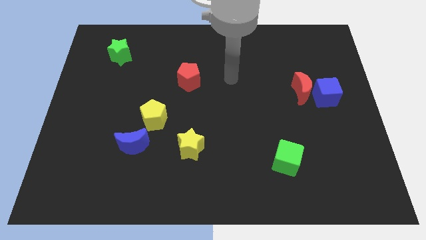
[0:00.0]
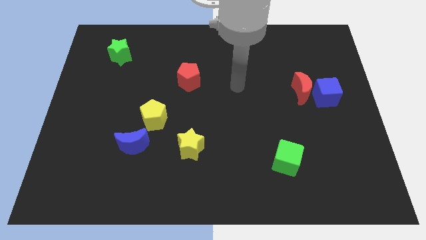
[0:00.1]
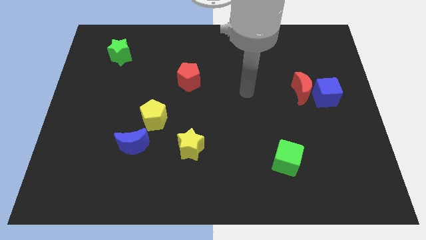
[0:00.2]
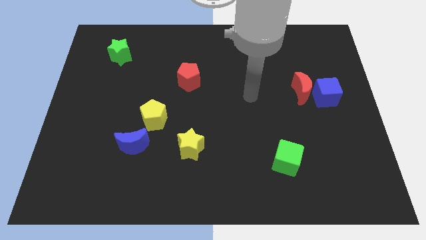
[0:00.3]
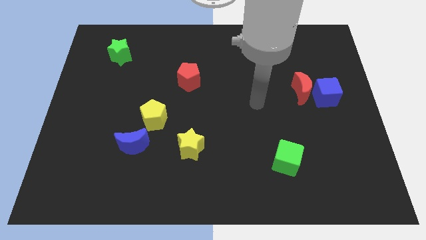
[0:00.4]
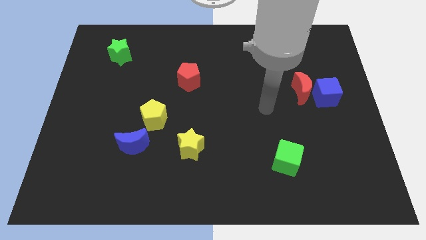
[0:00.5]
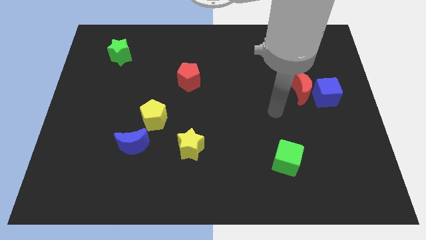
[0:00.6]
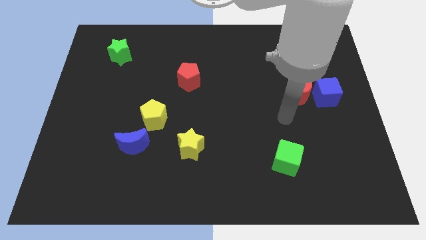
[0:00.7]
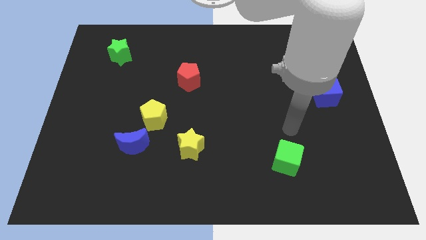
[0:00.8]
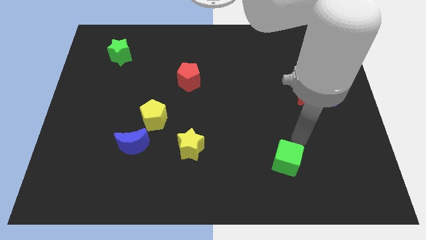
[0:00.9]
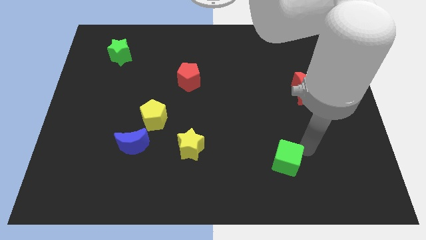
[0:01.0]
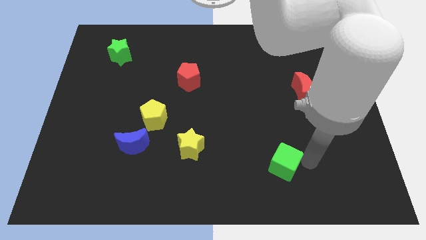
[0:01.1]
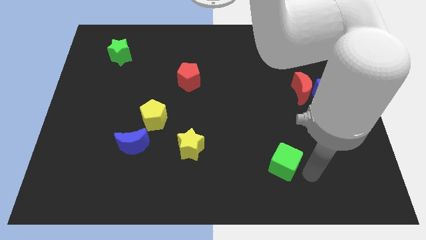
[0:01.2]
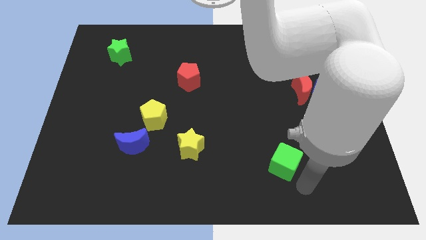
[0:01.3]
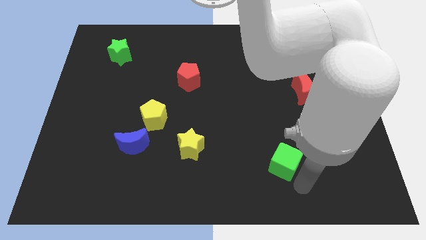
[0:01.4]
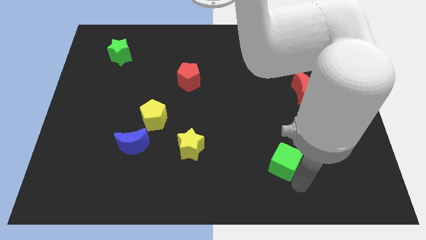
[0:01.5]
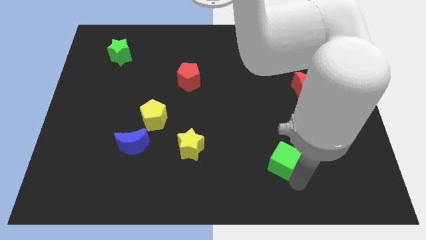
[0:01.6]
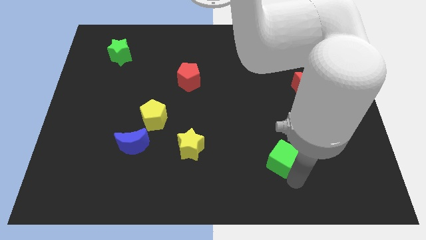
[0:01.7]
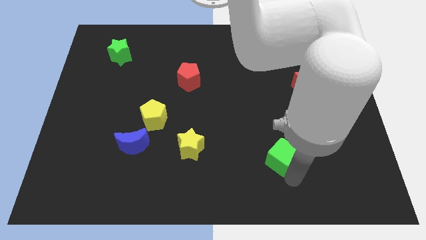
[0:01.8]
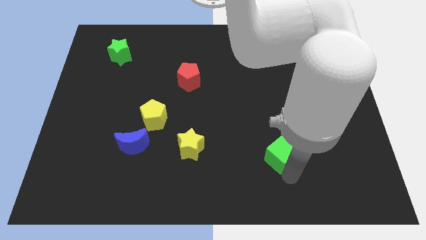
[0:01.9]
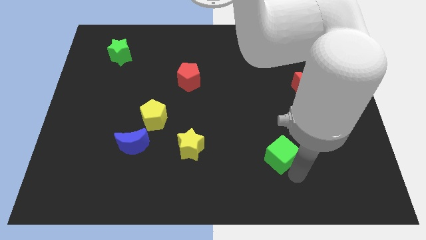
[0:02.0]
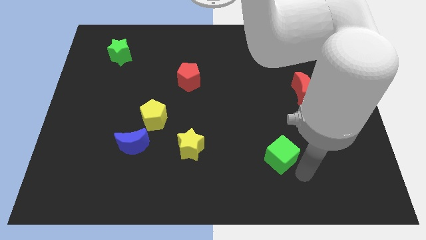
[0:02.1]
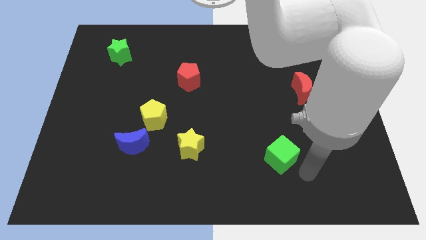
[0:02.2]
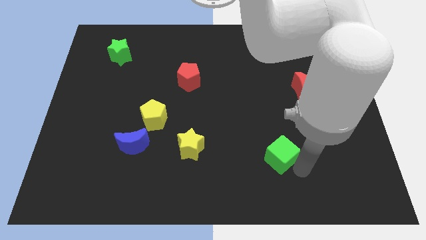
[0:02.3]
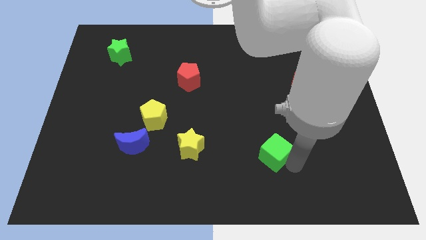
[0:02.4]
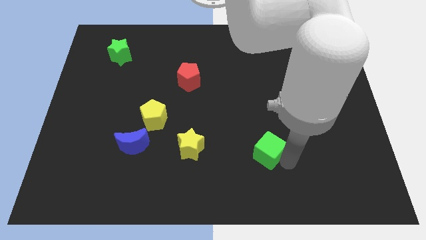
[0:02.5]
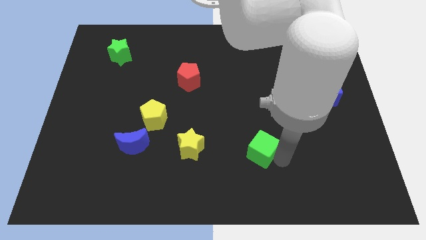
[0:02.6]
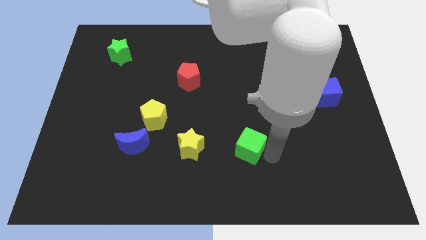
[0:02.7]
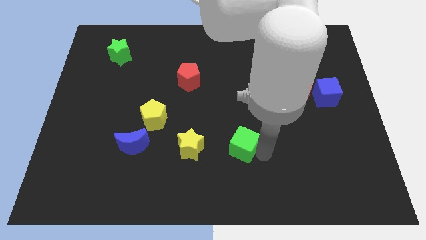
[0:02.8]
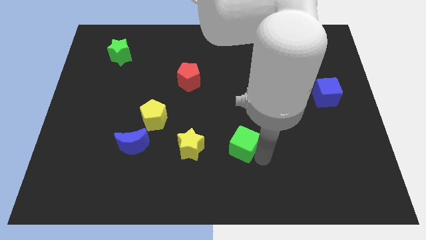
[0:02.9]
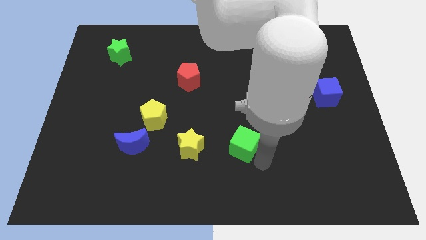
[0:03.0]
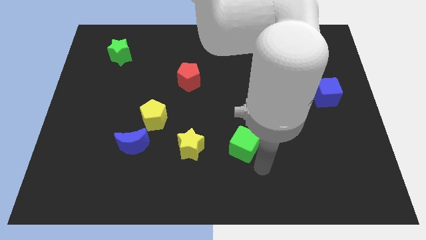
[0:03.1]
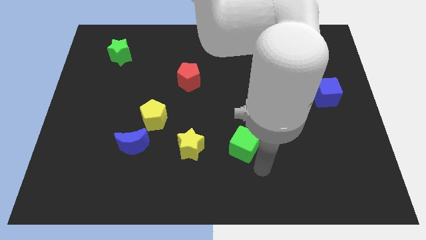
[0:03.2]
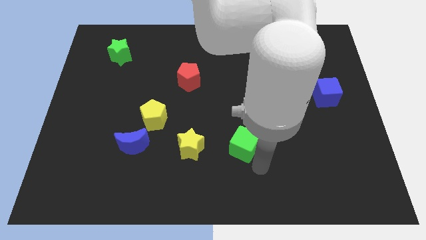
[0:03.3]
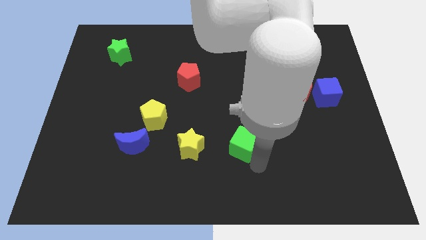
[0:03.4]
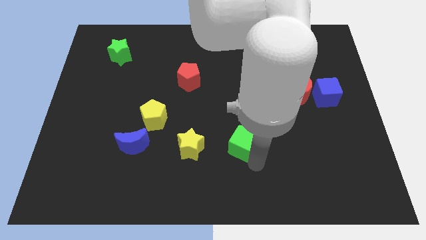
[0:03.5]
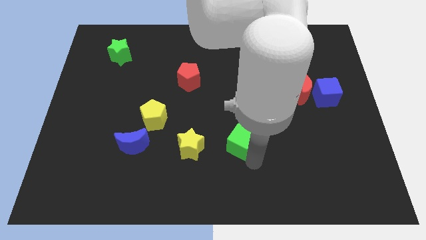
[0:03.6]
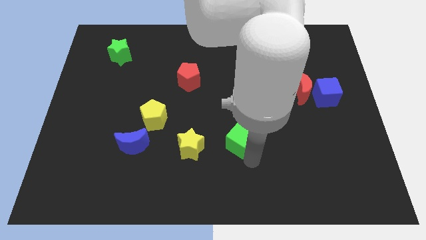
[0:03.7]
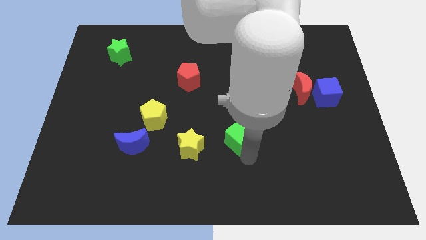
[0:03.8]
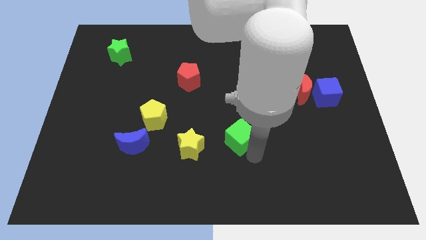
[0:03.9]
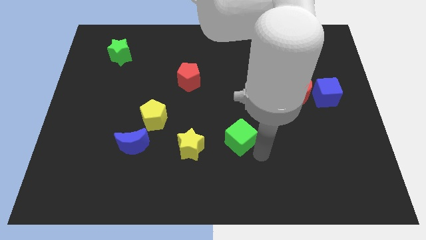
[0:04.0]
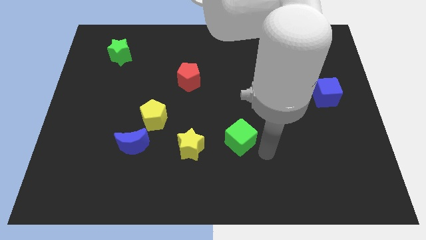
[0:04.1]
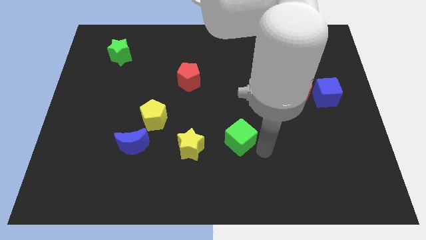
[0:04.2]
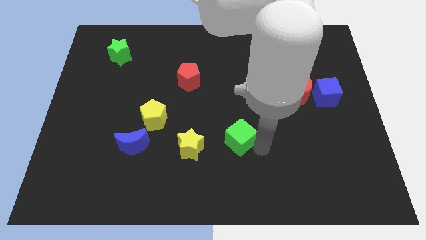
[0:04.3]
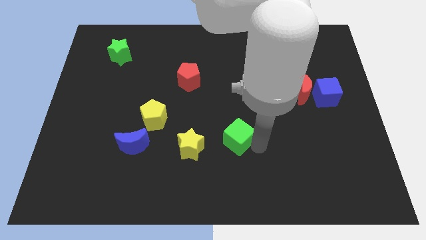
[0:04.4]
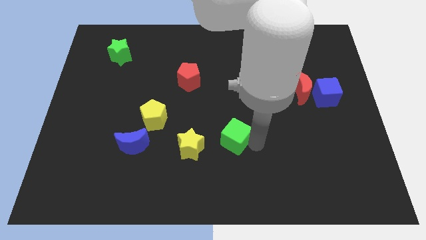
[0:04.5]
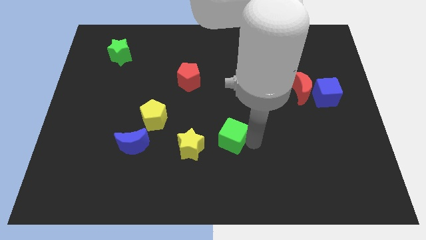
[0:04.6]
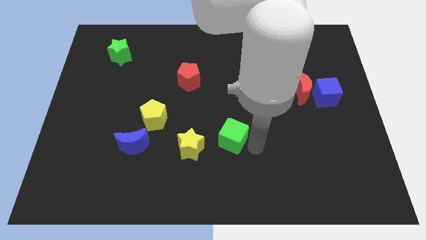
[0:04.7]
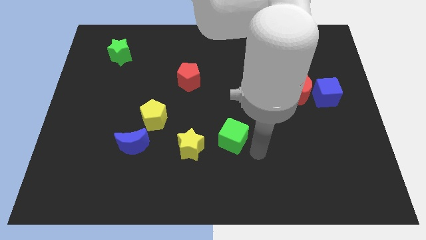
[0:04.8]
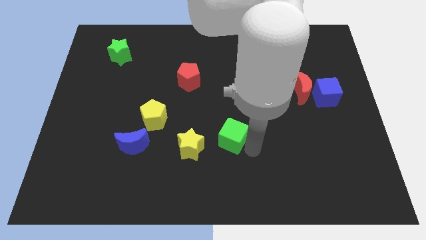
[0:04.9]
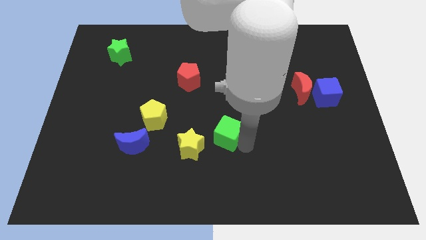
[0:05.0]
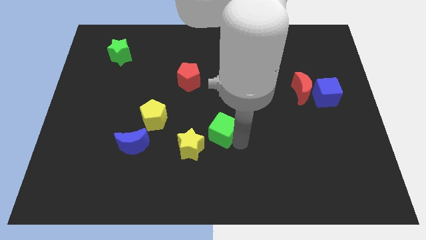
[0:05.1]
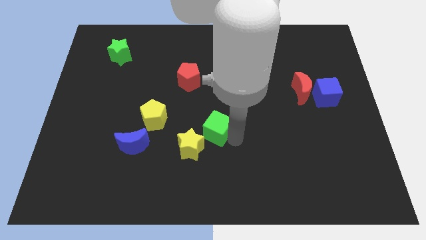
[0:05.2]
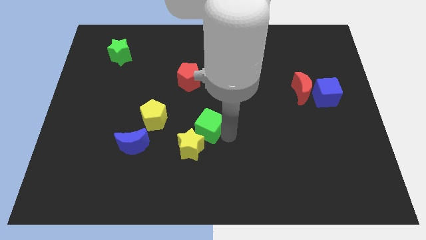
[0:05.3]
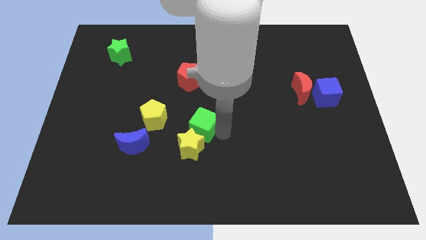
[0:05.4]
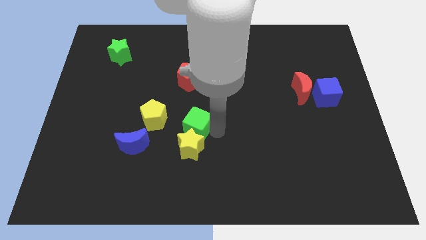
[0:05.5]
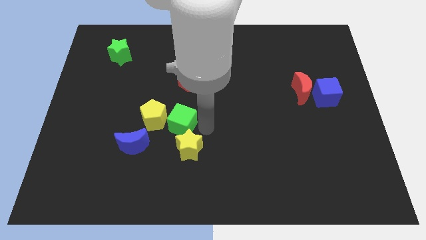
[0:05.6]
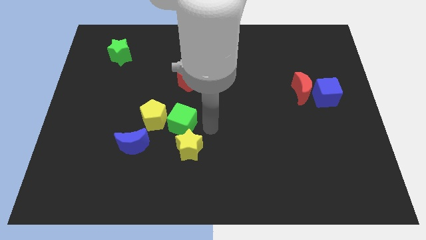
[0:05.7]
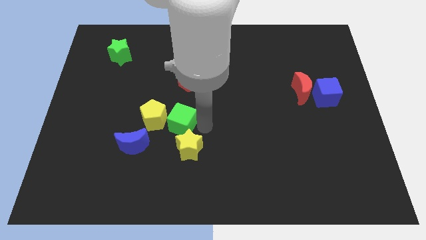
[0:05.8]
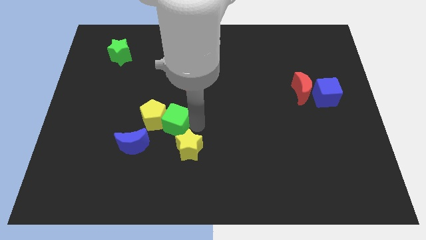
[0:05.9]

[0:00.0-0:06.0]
push the green cube next to the yellow pentagon

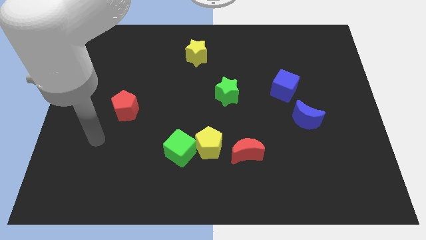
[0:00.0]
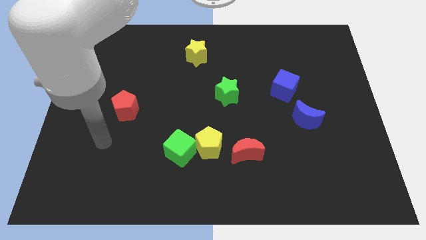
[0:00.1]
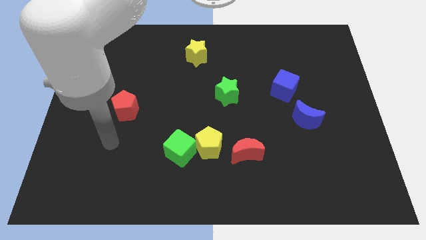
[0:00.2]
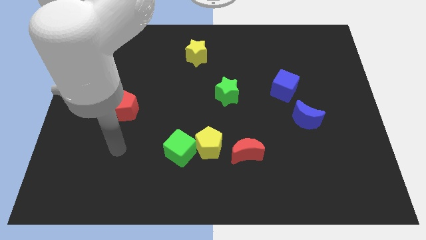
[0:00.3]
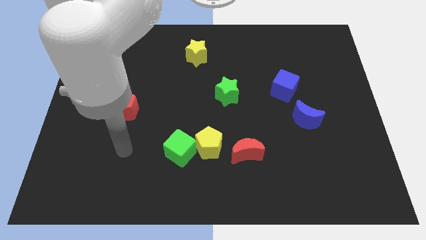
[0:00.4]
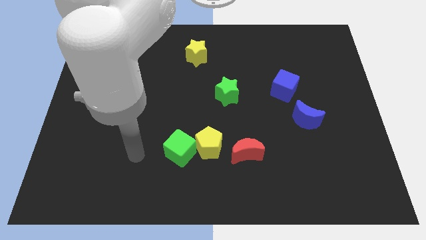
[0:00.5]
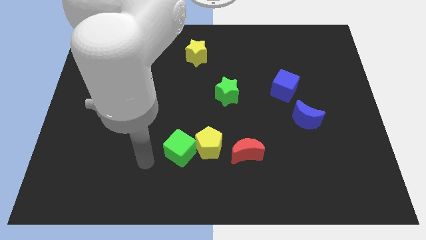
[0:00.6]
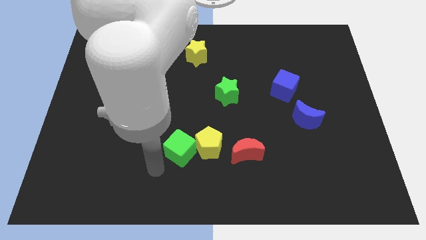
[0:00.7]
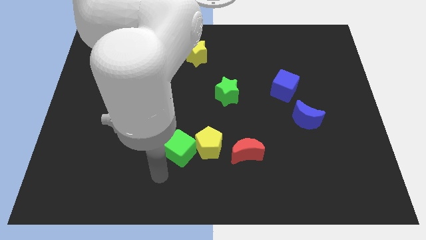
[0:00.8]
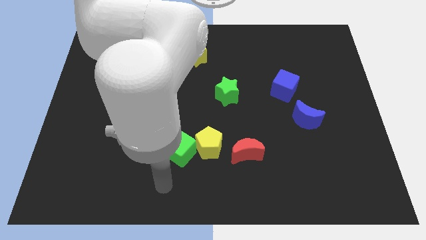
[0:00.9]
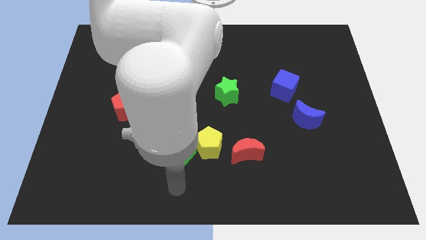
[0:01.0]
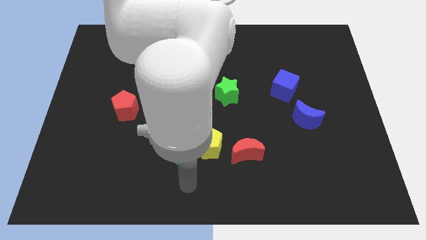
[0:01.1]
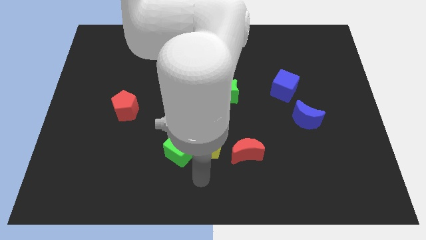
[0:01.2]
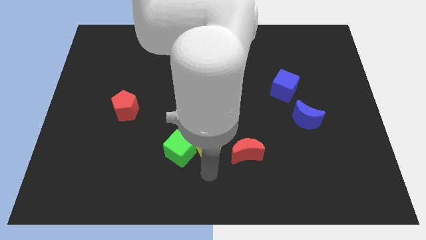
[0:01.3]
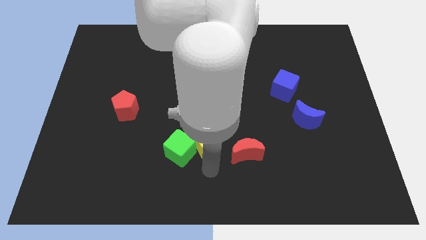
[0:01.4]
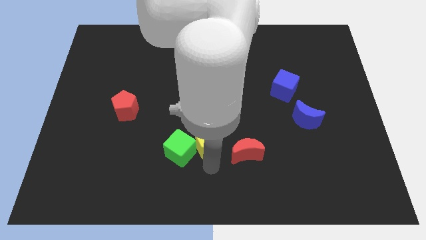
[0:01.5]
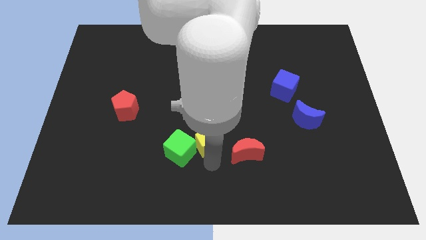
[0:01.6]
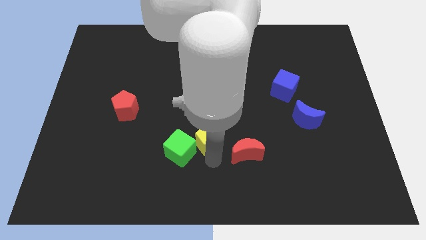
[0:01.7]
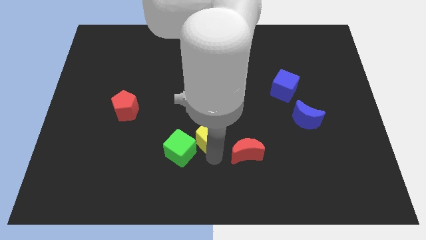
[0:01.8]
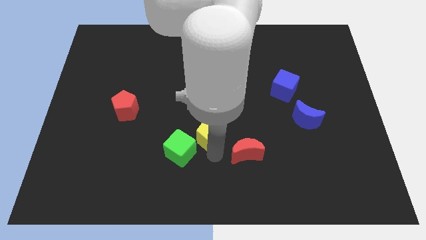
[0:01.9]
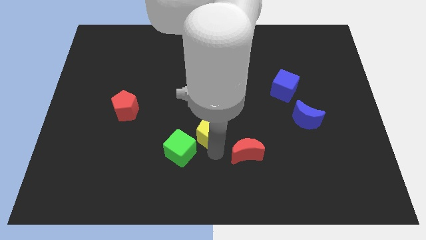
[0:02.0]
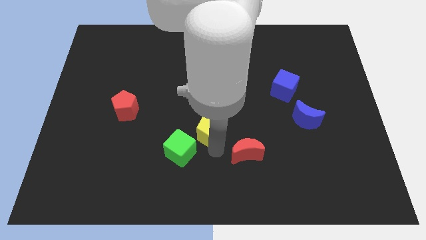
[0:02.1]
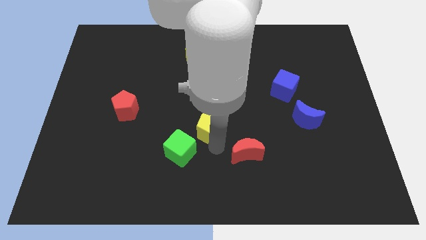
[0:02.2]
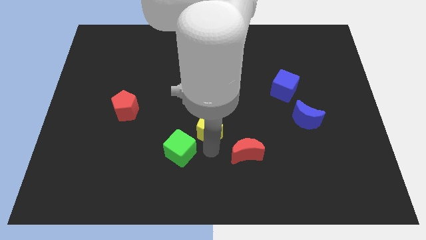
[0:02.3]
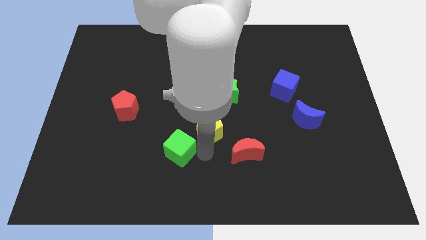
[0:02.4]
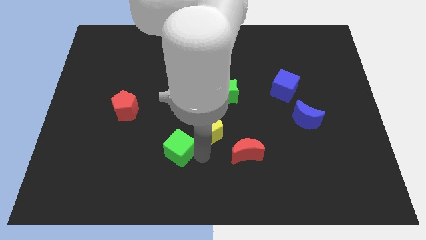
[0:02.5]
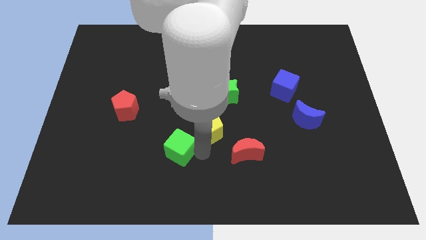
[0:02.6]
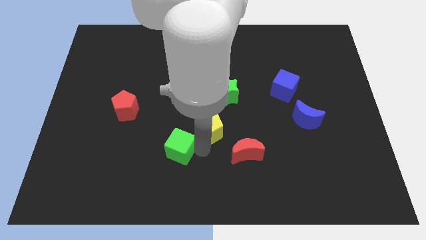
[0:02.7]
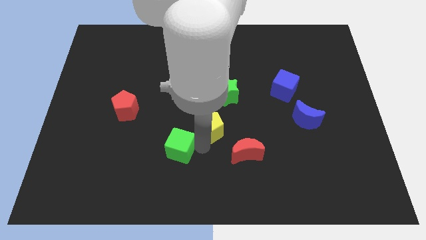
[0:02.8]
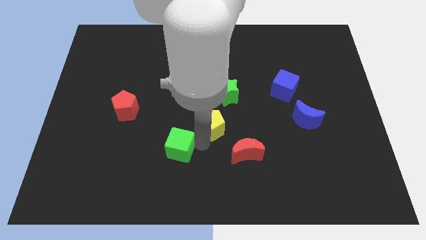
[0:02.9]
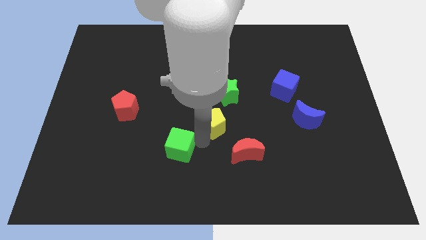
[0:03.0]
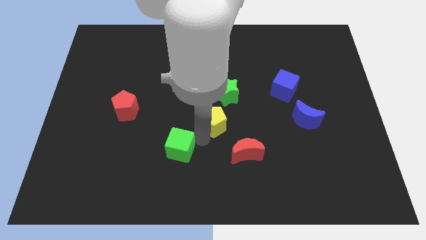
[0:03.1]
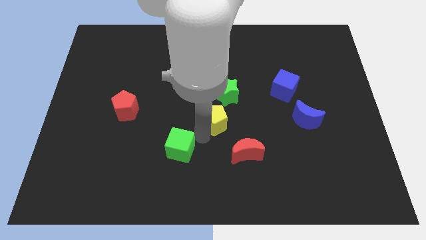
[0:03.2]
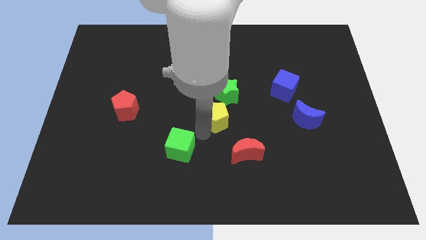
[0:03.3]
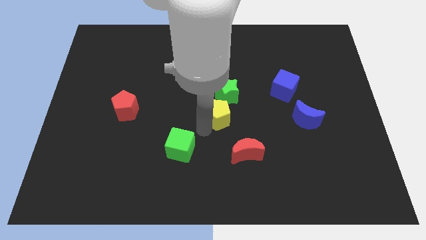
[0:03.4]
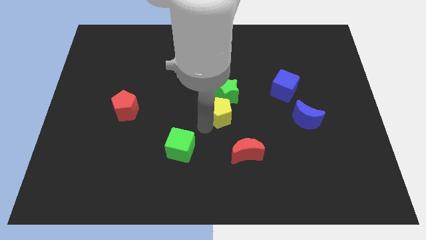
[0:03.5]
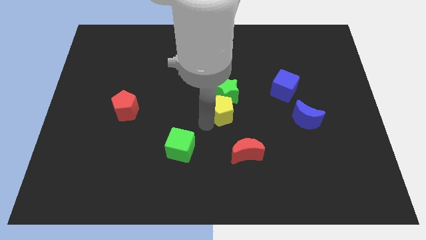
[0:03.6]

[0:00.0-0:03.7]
move the yellow pentagon next to the green star
